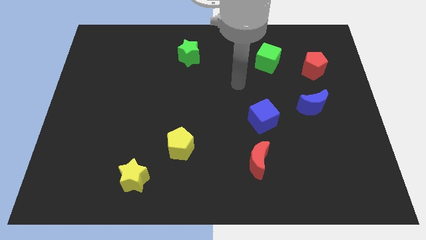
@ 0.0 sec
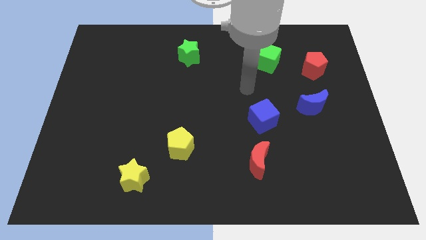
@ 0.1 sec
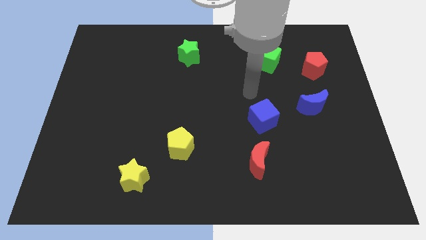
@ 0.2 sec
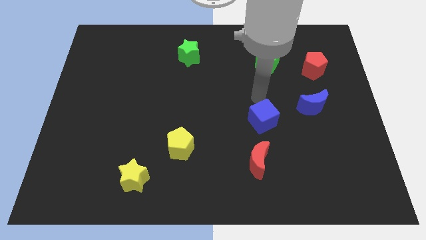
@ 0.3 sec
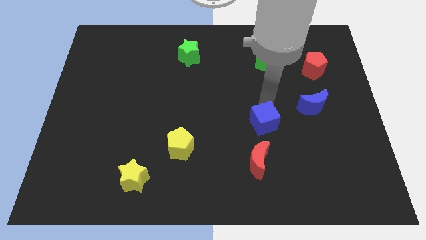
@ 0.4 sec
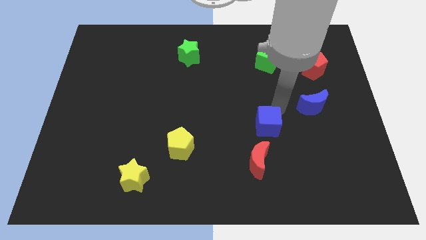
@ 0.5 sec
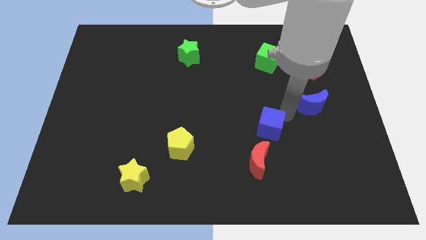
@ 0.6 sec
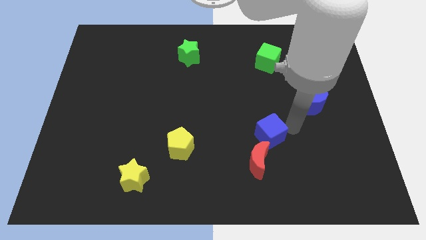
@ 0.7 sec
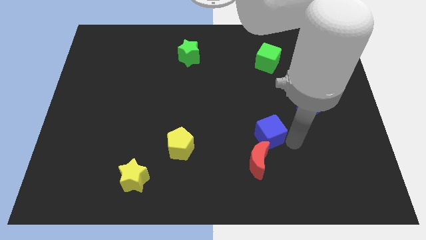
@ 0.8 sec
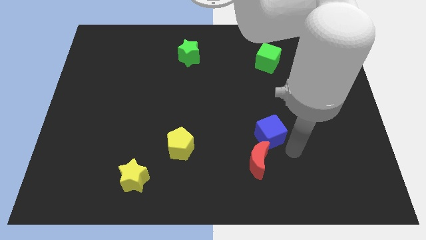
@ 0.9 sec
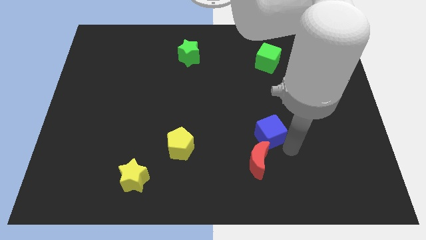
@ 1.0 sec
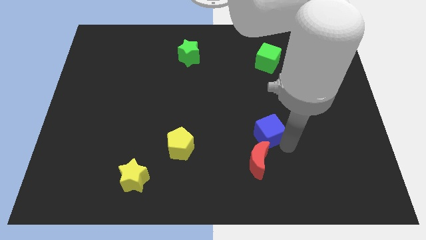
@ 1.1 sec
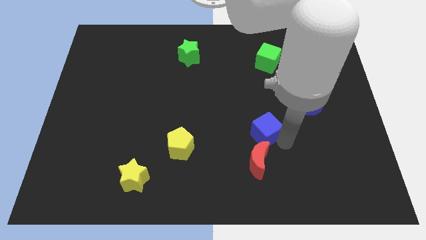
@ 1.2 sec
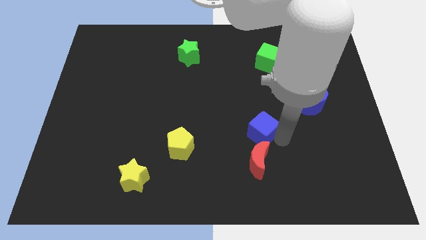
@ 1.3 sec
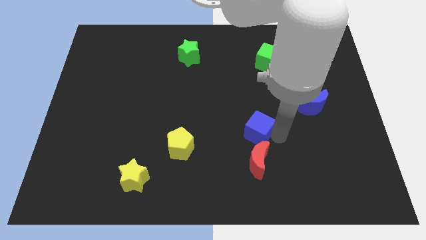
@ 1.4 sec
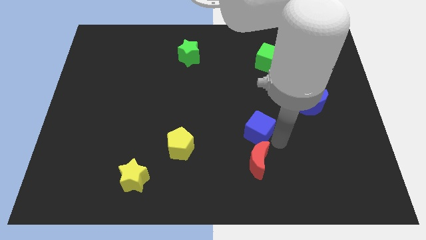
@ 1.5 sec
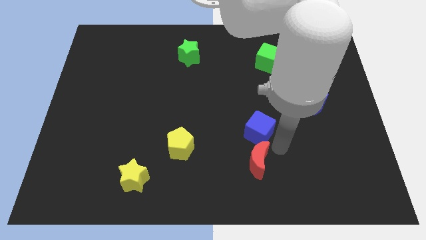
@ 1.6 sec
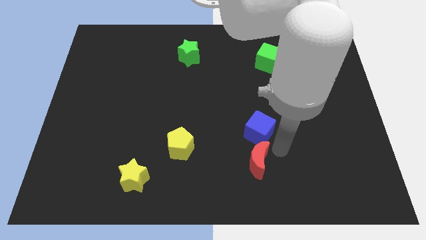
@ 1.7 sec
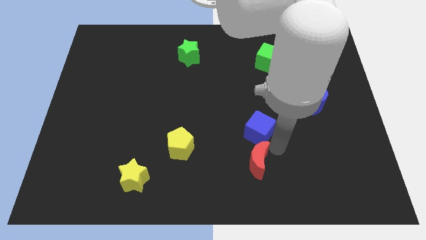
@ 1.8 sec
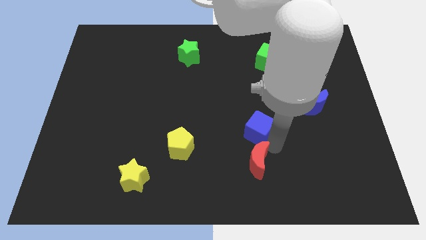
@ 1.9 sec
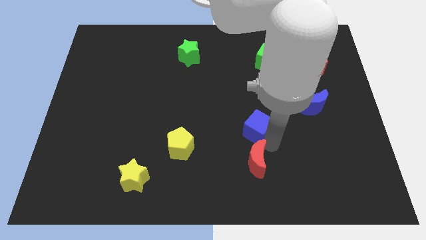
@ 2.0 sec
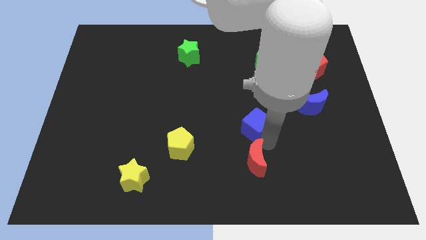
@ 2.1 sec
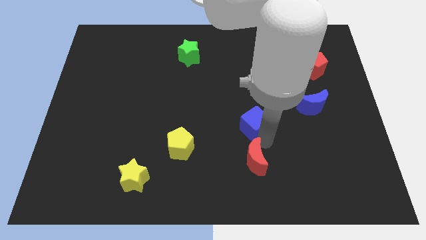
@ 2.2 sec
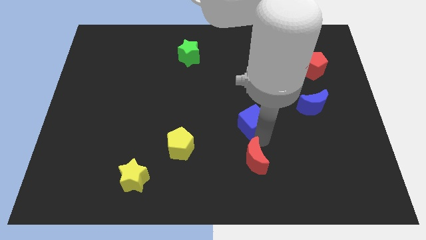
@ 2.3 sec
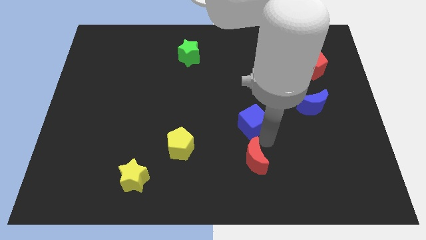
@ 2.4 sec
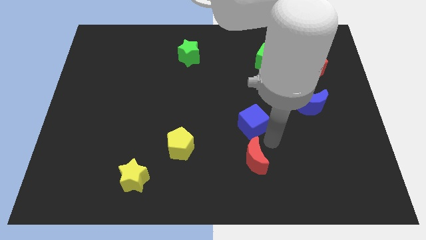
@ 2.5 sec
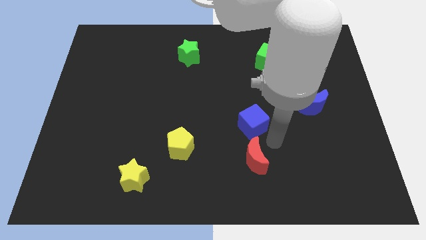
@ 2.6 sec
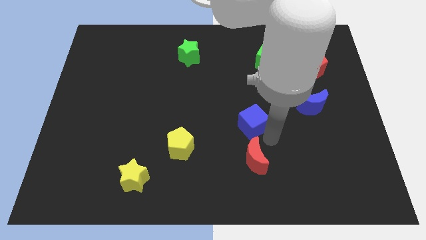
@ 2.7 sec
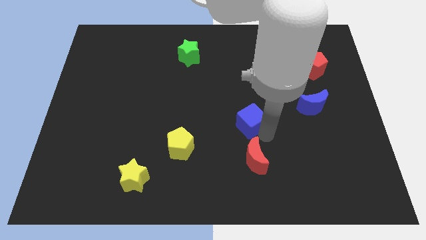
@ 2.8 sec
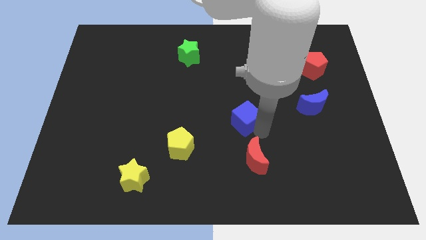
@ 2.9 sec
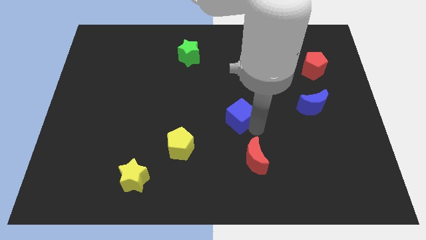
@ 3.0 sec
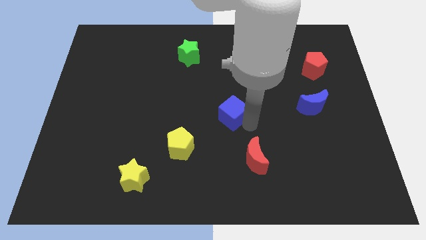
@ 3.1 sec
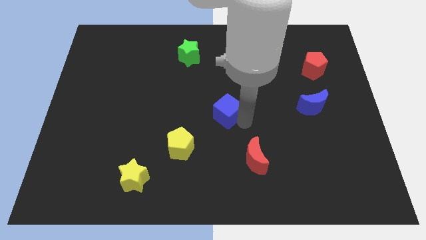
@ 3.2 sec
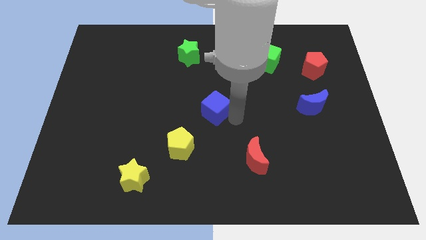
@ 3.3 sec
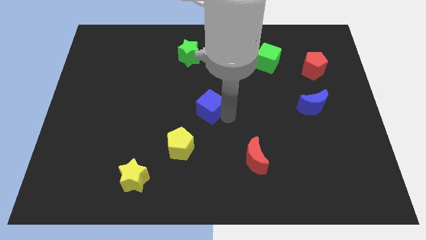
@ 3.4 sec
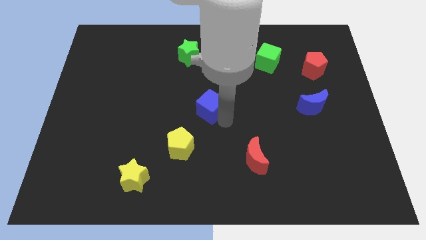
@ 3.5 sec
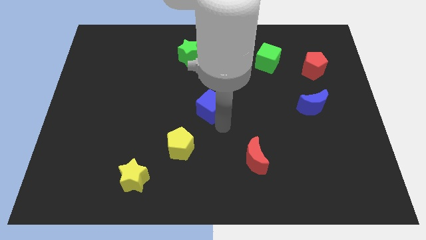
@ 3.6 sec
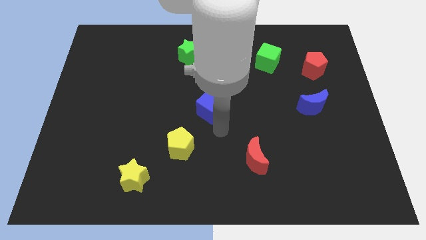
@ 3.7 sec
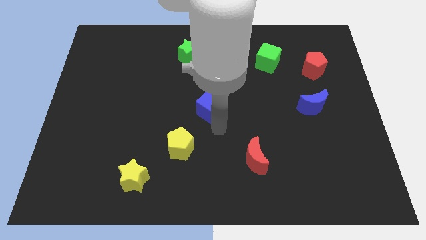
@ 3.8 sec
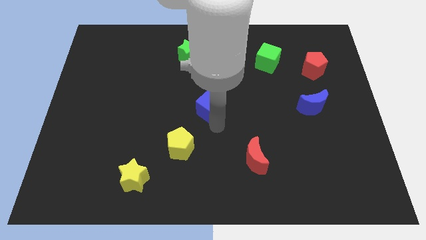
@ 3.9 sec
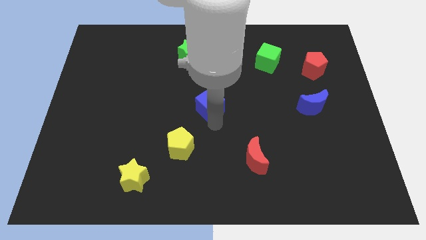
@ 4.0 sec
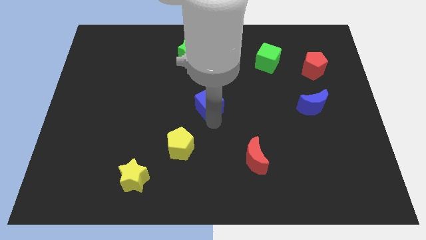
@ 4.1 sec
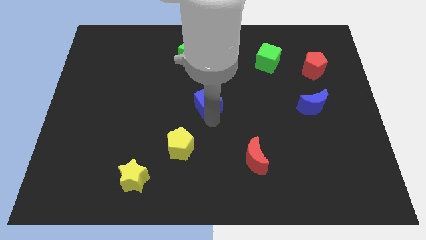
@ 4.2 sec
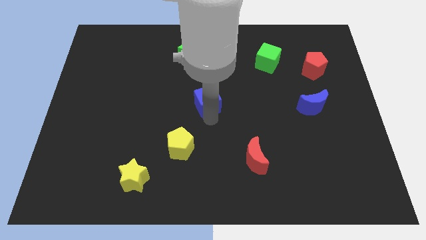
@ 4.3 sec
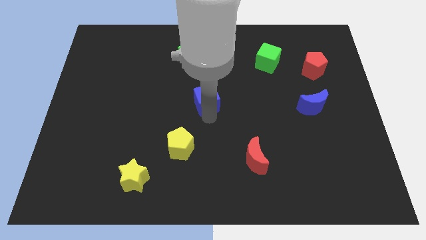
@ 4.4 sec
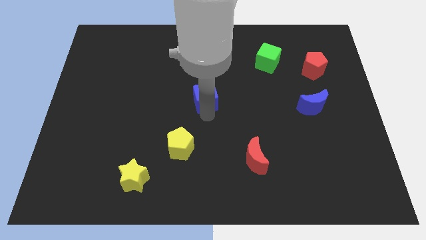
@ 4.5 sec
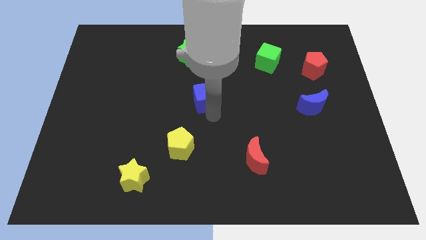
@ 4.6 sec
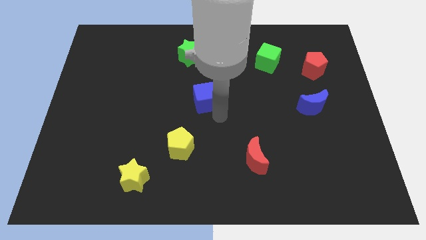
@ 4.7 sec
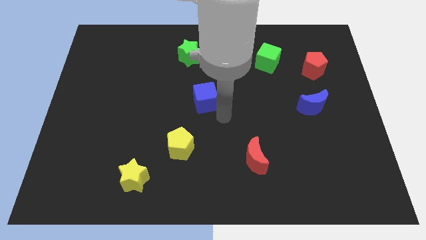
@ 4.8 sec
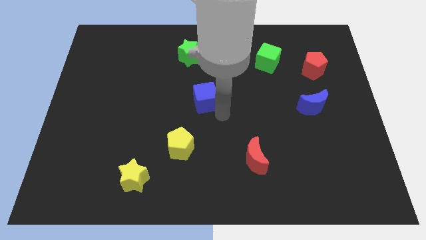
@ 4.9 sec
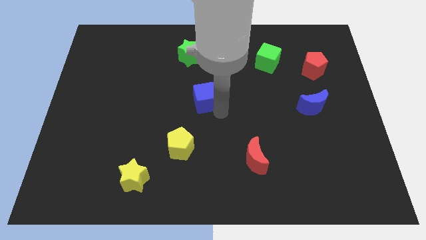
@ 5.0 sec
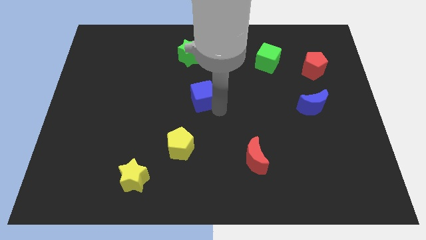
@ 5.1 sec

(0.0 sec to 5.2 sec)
slide the blue cube to the bottom of the green star

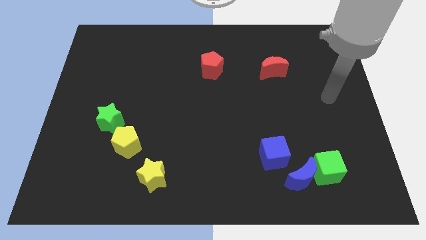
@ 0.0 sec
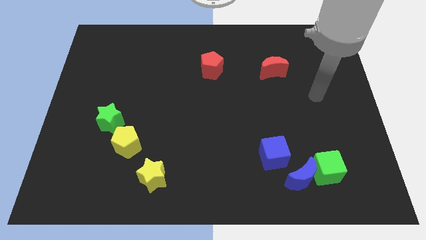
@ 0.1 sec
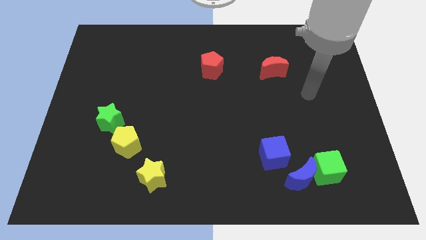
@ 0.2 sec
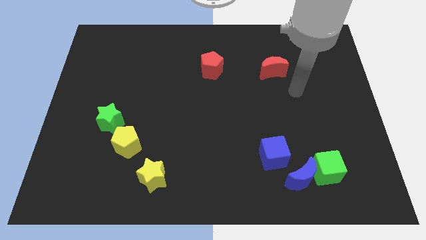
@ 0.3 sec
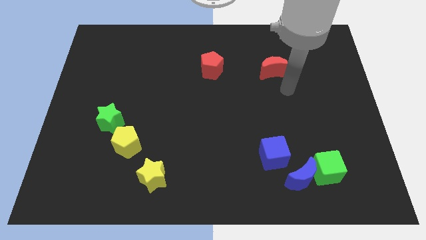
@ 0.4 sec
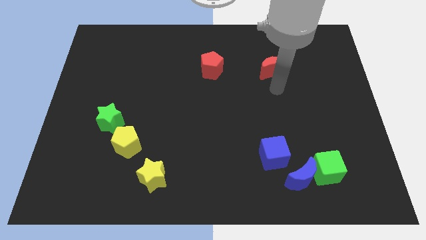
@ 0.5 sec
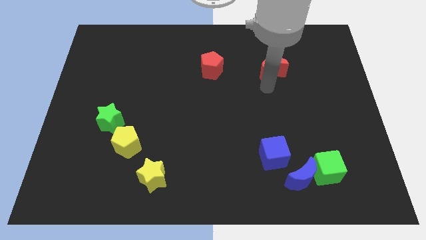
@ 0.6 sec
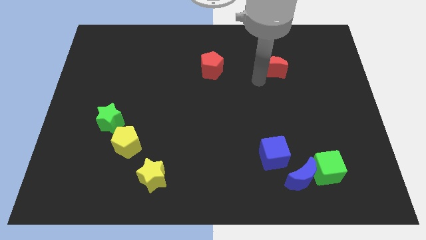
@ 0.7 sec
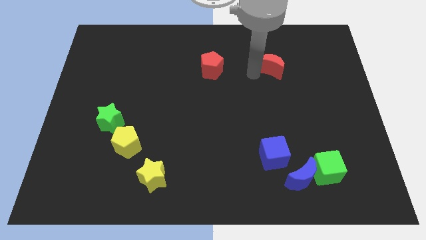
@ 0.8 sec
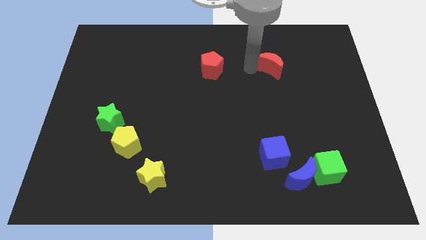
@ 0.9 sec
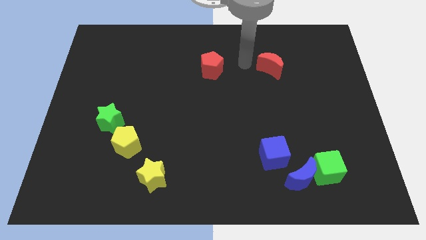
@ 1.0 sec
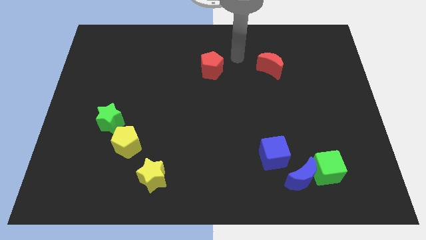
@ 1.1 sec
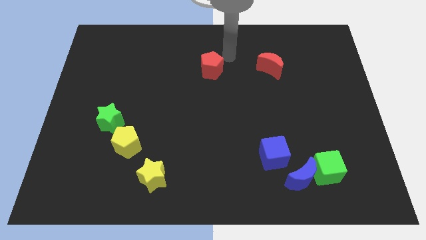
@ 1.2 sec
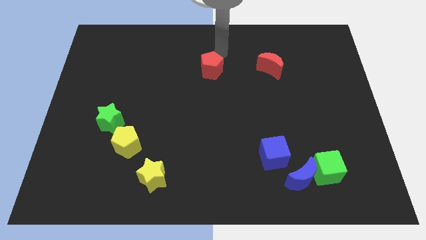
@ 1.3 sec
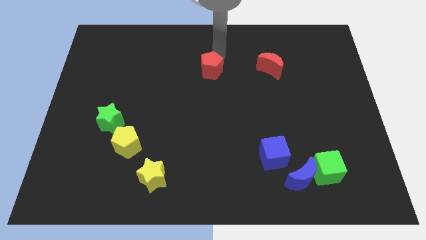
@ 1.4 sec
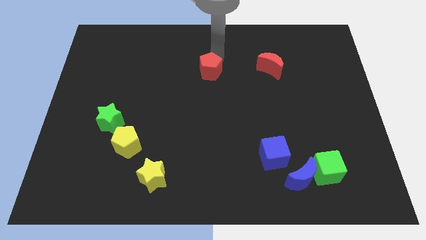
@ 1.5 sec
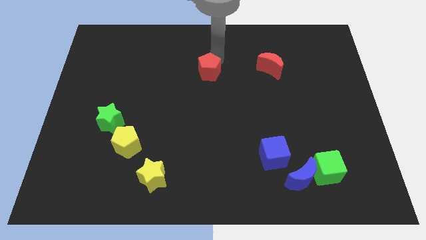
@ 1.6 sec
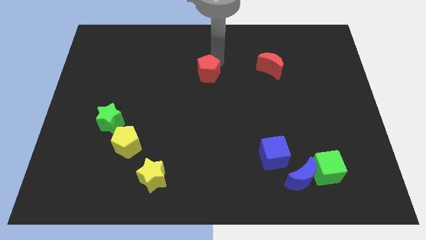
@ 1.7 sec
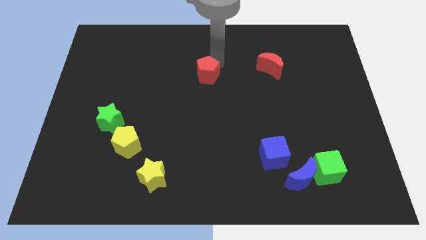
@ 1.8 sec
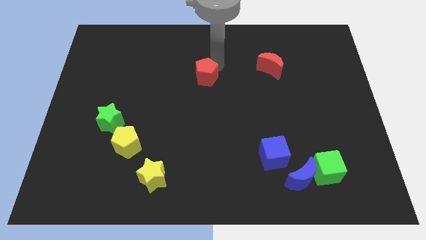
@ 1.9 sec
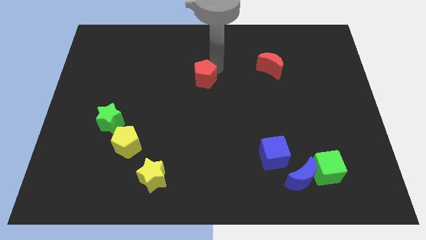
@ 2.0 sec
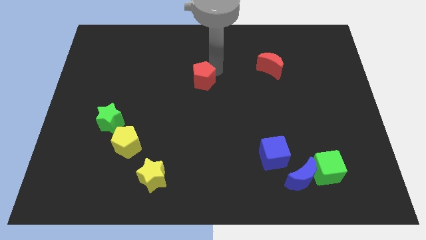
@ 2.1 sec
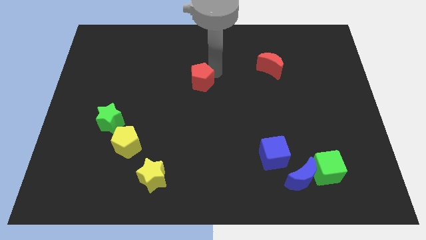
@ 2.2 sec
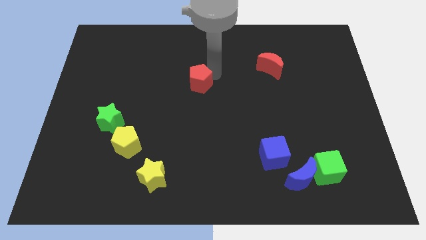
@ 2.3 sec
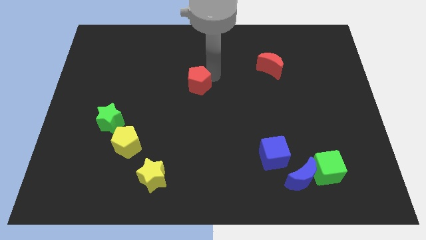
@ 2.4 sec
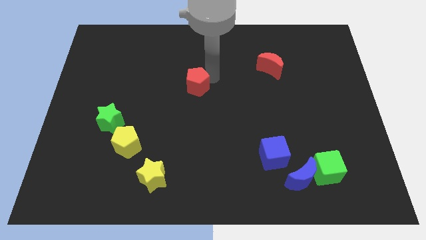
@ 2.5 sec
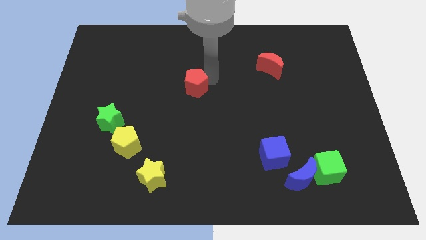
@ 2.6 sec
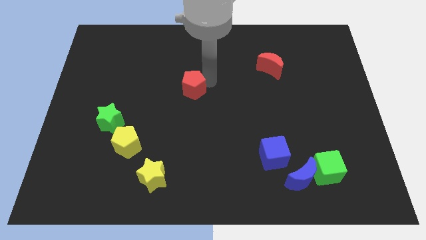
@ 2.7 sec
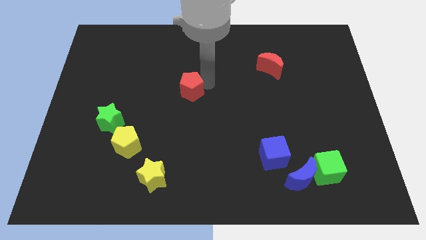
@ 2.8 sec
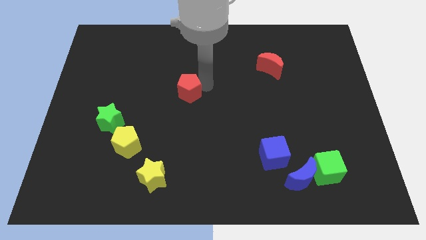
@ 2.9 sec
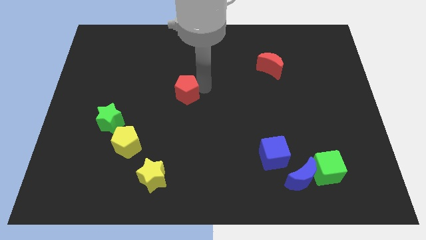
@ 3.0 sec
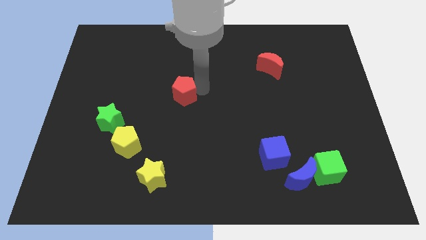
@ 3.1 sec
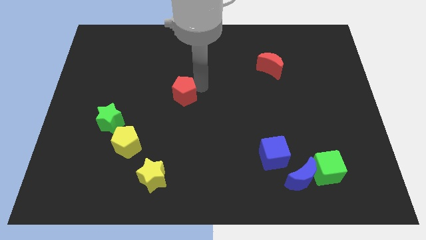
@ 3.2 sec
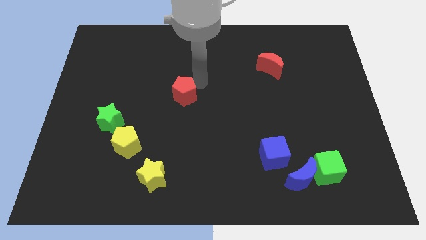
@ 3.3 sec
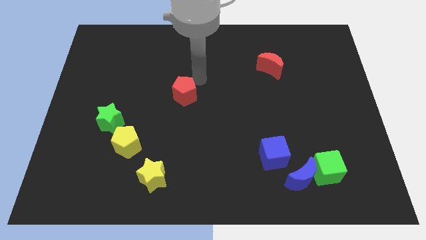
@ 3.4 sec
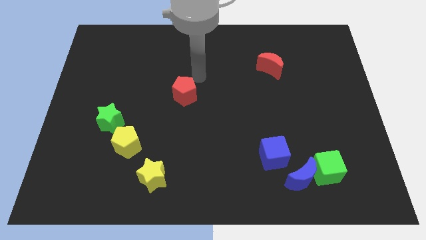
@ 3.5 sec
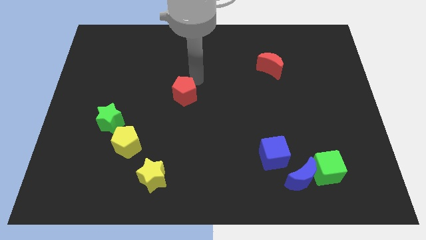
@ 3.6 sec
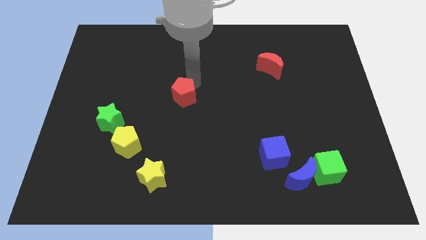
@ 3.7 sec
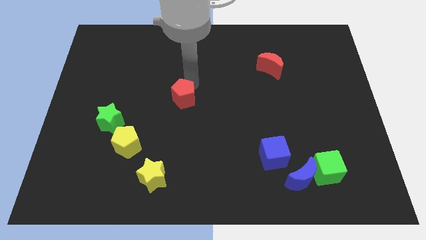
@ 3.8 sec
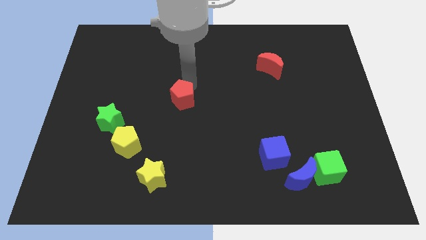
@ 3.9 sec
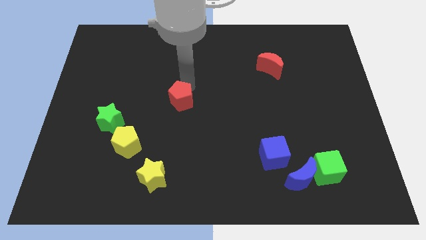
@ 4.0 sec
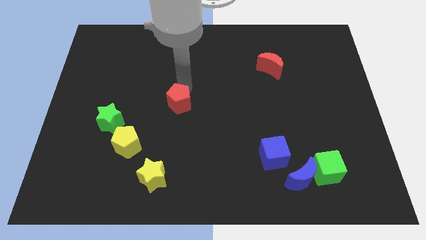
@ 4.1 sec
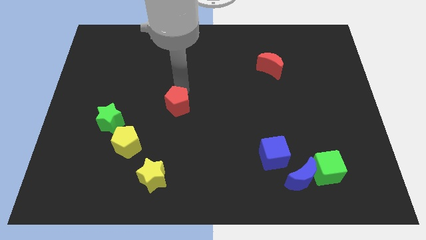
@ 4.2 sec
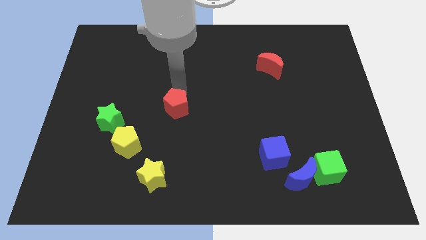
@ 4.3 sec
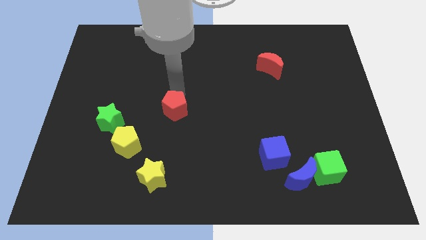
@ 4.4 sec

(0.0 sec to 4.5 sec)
push the red pentagon to the right of the green star
